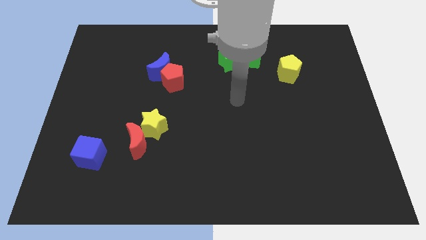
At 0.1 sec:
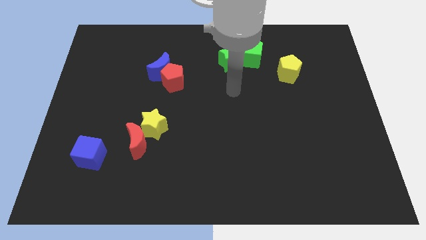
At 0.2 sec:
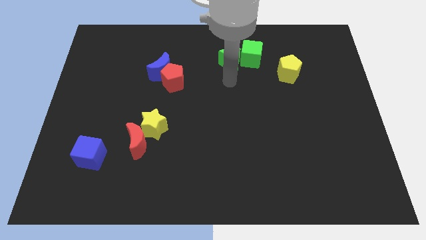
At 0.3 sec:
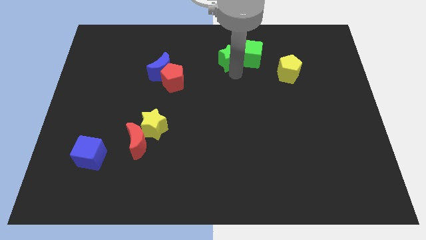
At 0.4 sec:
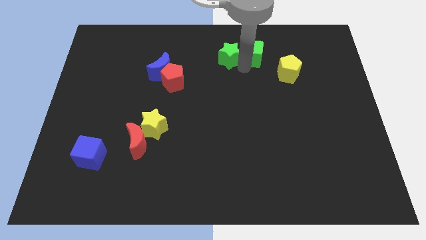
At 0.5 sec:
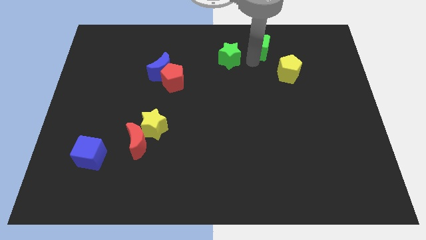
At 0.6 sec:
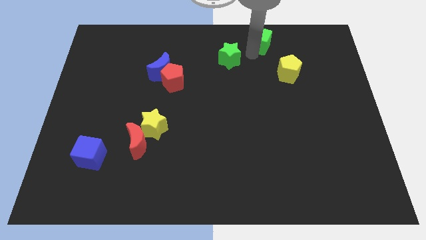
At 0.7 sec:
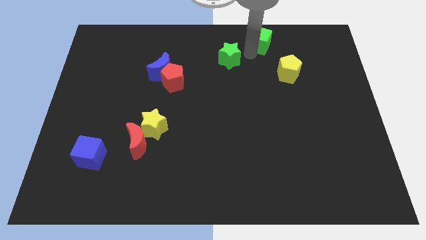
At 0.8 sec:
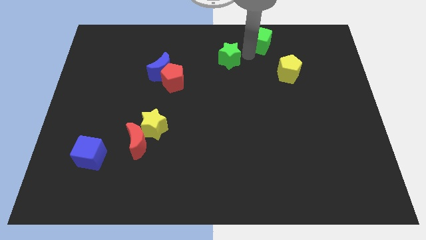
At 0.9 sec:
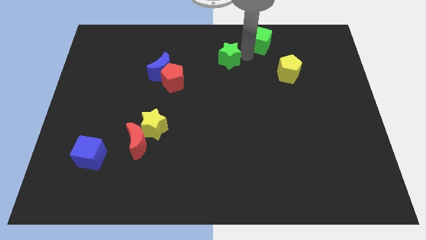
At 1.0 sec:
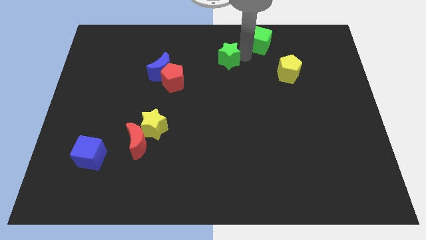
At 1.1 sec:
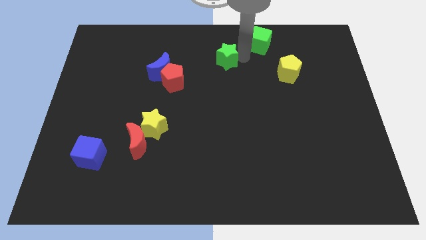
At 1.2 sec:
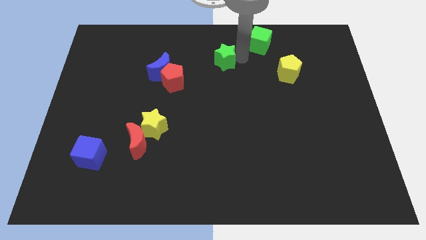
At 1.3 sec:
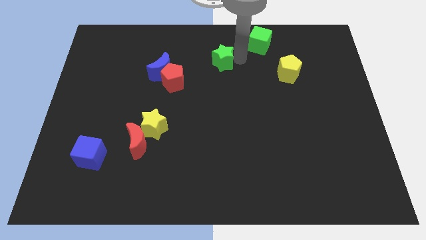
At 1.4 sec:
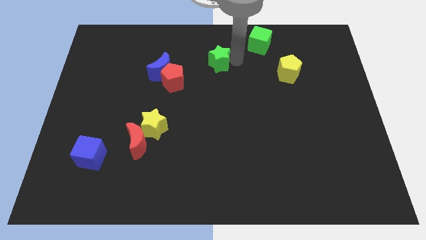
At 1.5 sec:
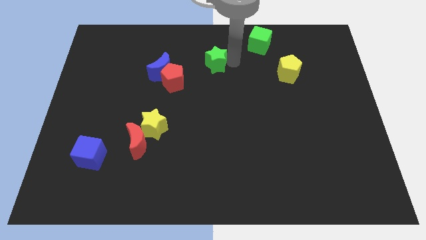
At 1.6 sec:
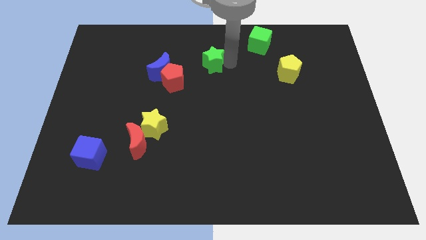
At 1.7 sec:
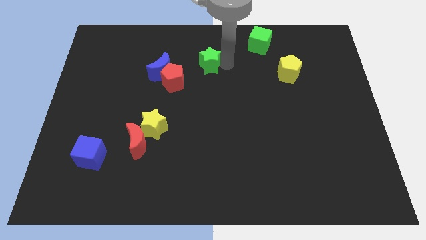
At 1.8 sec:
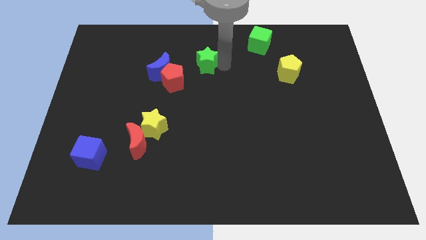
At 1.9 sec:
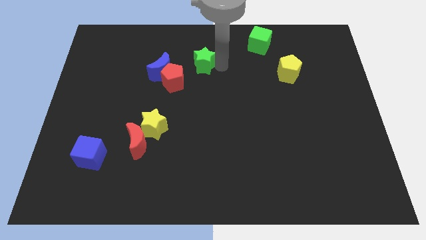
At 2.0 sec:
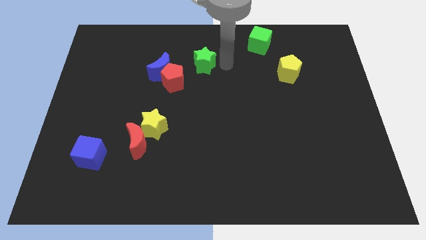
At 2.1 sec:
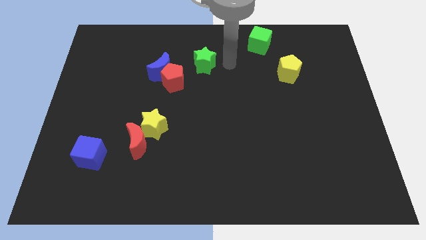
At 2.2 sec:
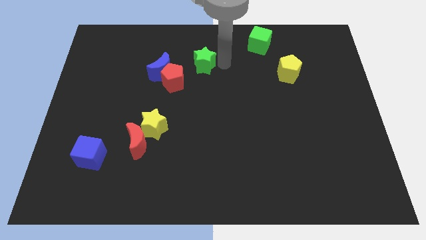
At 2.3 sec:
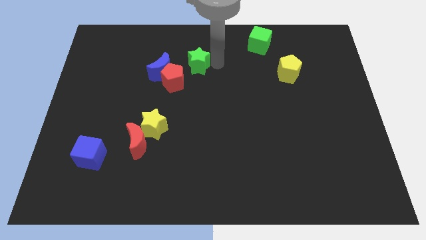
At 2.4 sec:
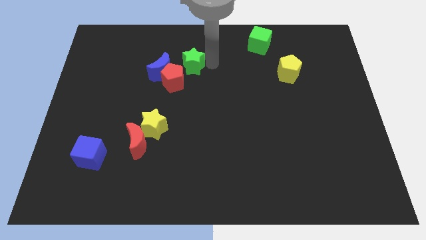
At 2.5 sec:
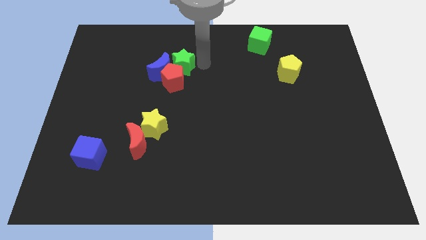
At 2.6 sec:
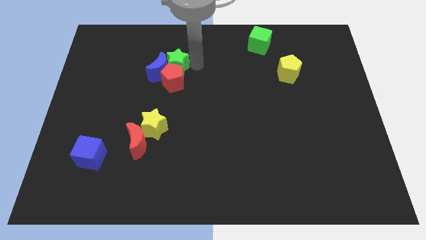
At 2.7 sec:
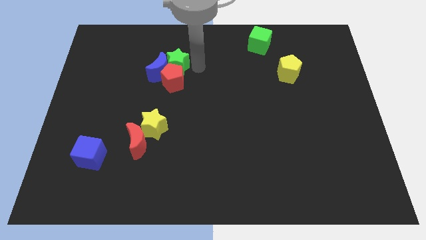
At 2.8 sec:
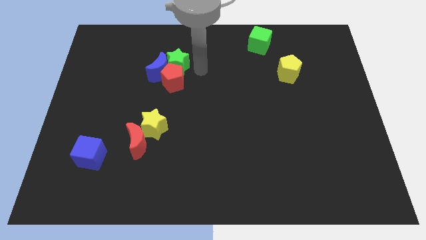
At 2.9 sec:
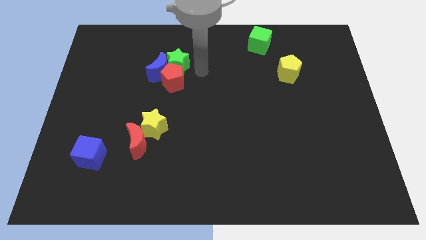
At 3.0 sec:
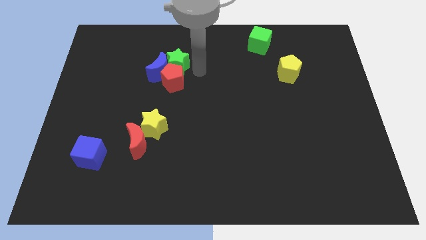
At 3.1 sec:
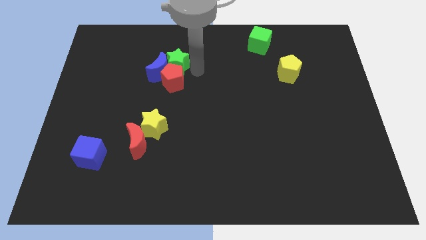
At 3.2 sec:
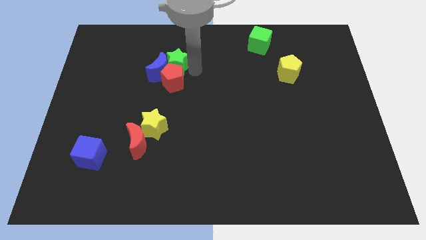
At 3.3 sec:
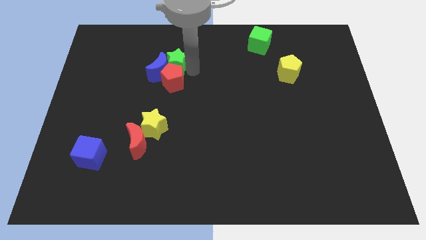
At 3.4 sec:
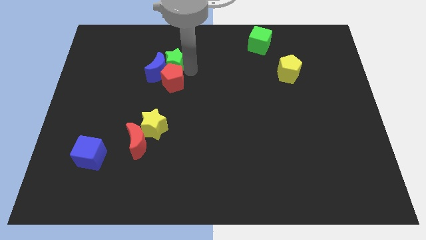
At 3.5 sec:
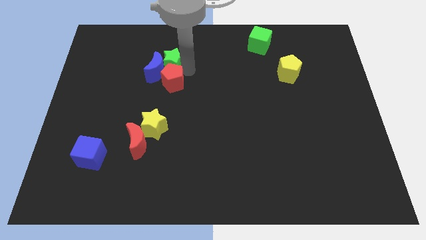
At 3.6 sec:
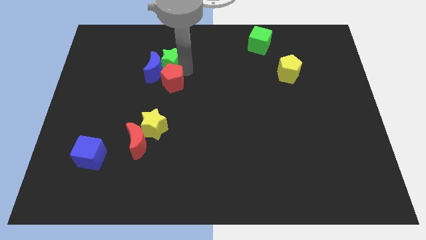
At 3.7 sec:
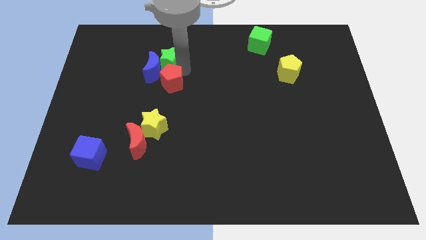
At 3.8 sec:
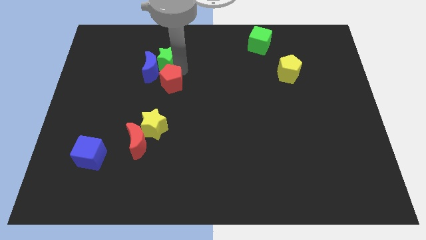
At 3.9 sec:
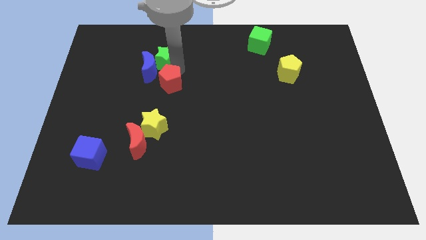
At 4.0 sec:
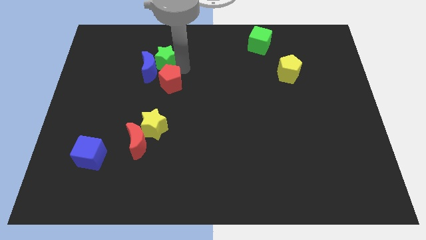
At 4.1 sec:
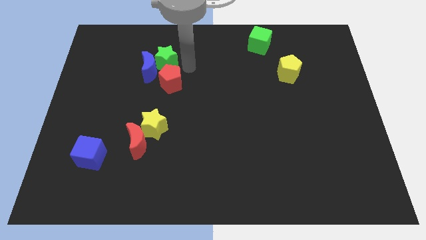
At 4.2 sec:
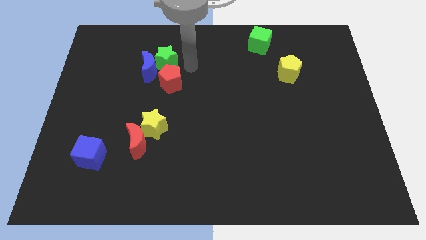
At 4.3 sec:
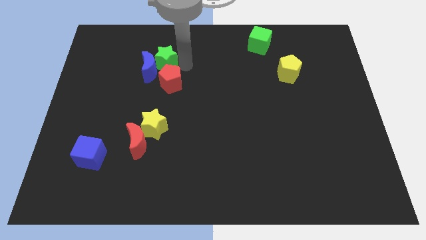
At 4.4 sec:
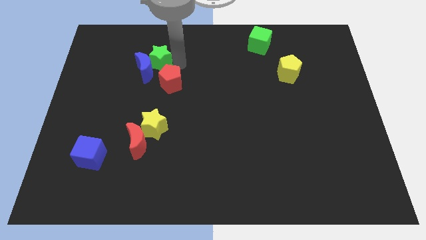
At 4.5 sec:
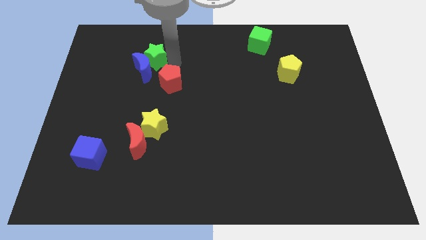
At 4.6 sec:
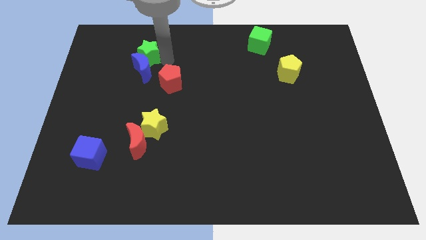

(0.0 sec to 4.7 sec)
move the green star left

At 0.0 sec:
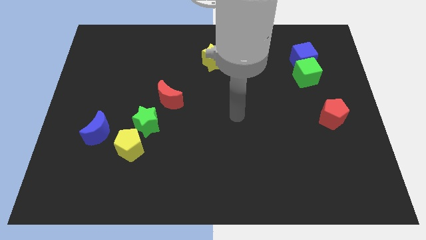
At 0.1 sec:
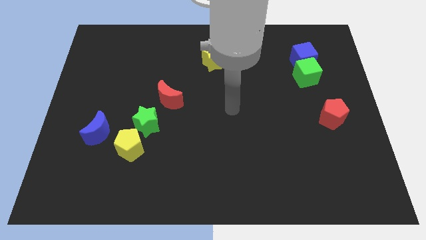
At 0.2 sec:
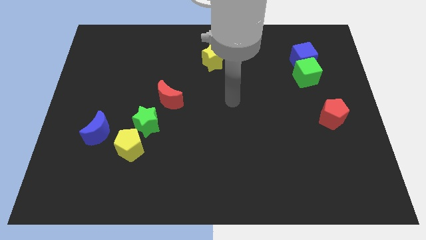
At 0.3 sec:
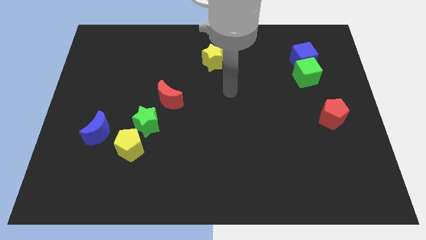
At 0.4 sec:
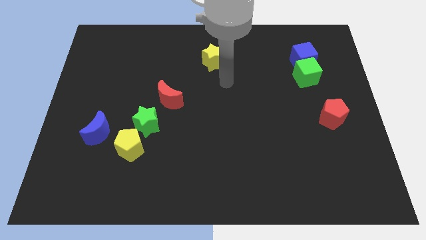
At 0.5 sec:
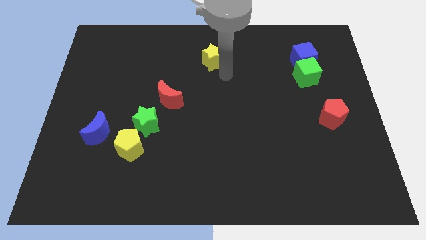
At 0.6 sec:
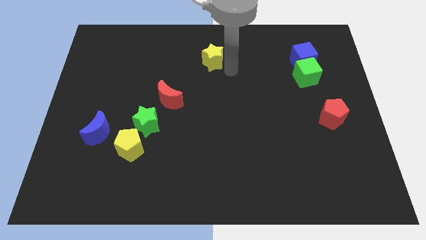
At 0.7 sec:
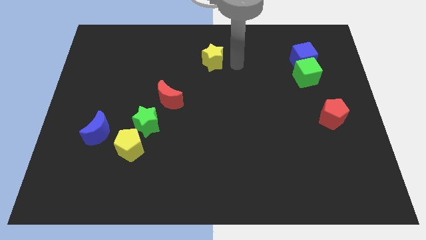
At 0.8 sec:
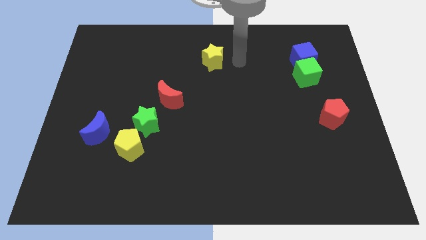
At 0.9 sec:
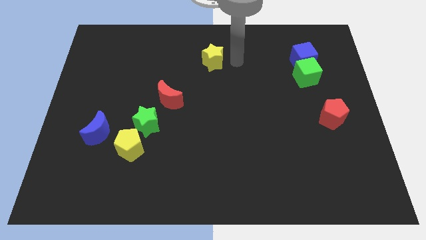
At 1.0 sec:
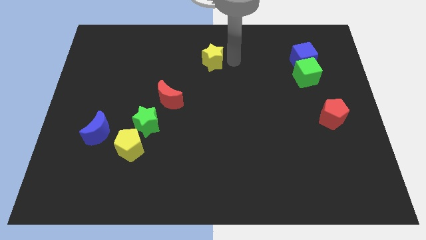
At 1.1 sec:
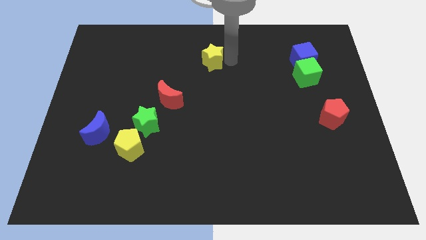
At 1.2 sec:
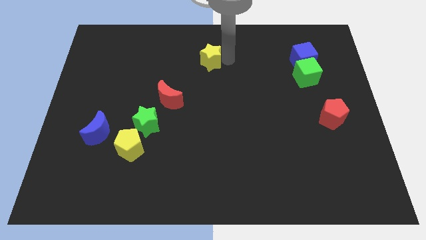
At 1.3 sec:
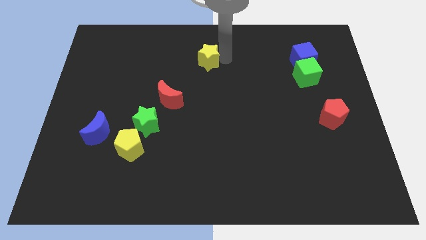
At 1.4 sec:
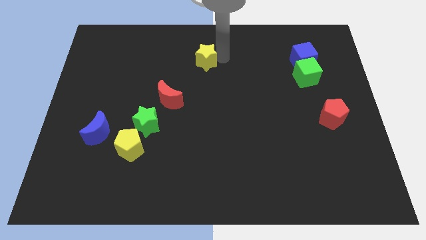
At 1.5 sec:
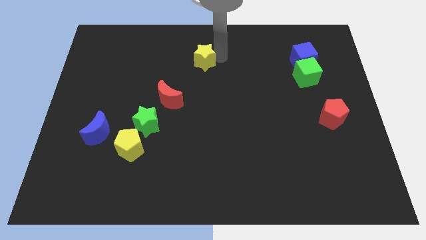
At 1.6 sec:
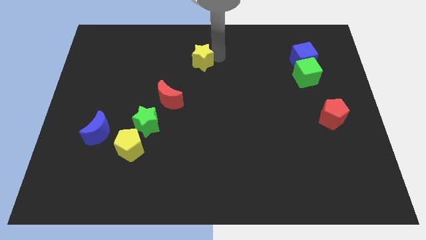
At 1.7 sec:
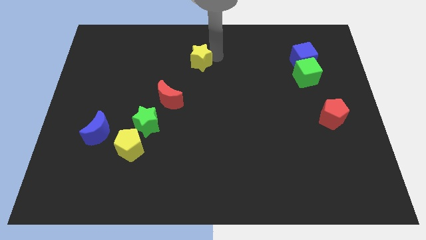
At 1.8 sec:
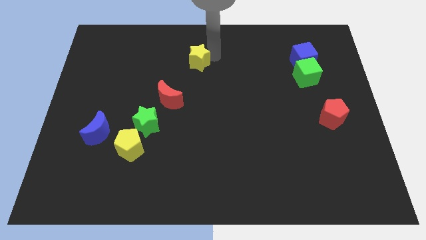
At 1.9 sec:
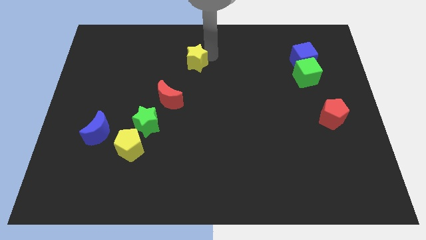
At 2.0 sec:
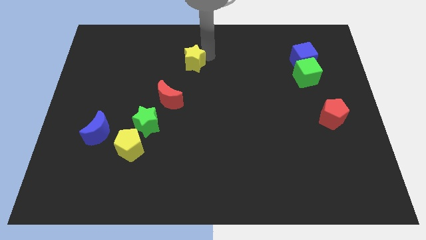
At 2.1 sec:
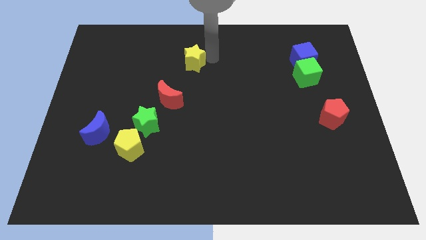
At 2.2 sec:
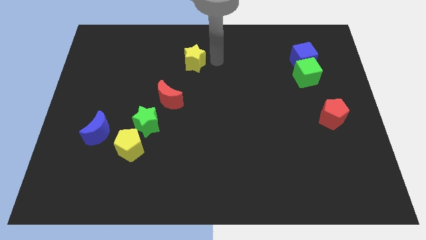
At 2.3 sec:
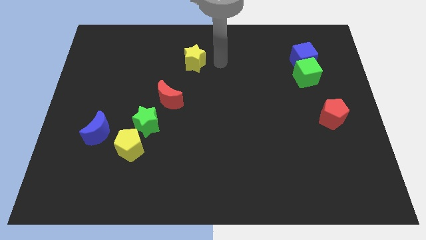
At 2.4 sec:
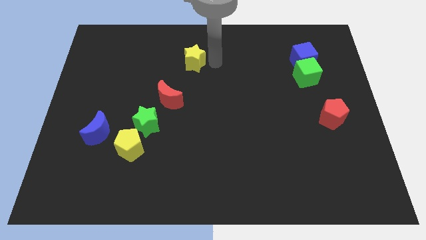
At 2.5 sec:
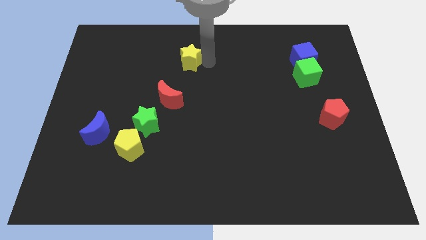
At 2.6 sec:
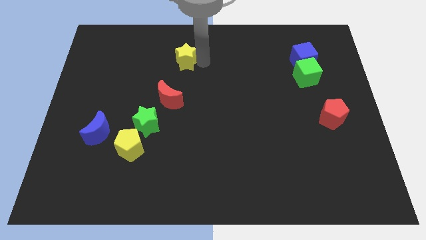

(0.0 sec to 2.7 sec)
slide the yellow star left slightly

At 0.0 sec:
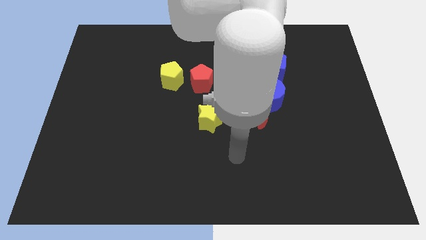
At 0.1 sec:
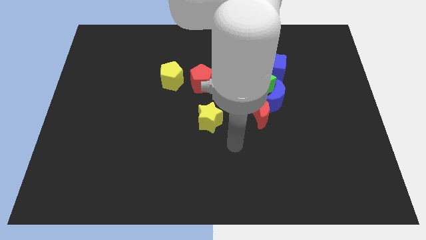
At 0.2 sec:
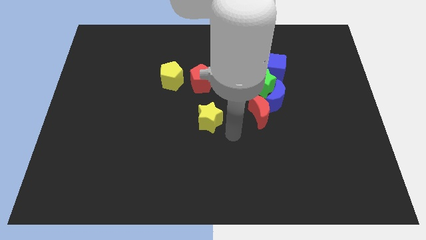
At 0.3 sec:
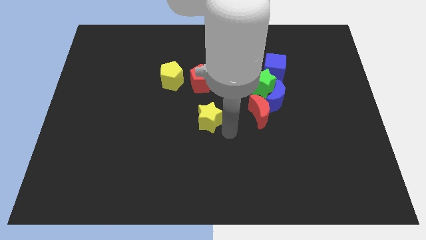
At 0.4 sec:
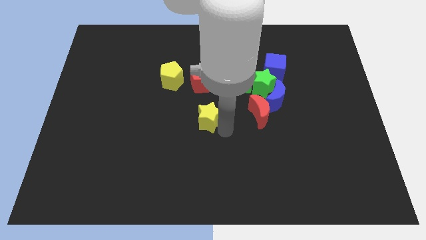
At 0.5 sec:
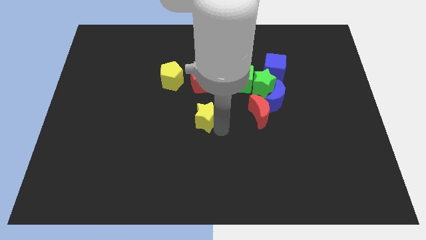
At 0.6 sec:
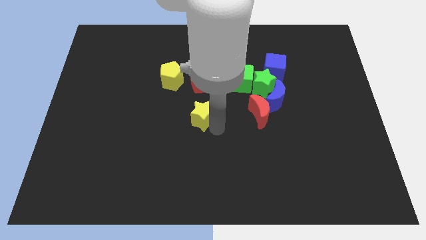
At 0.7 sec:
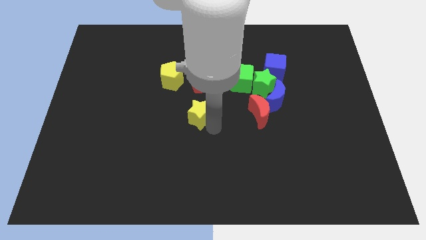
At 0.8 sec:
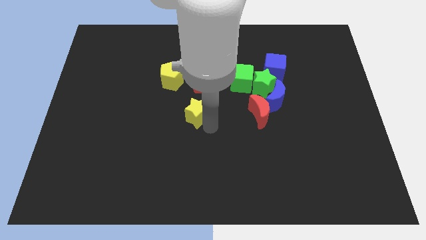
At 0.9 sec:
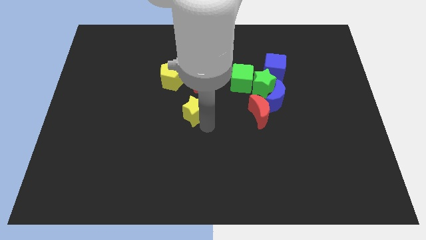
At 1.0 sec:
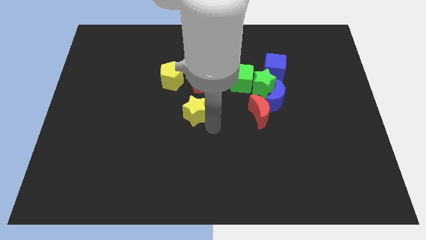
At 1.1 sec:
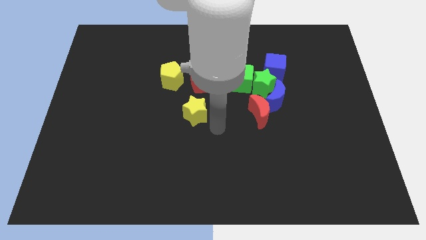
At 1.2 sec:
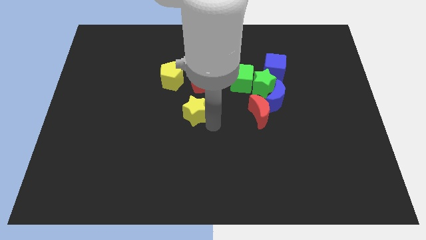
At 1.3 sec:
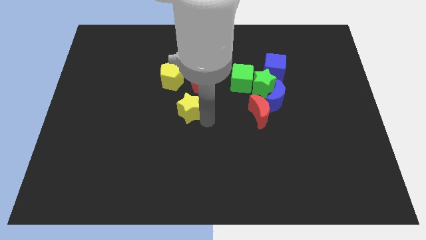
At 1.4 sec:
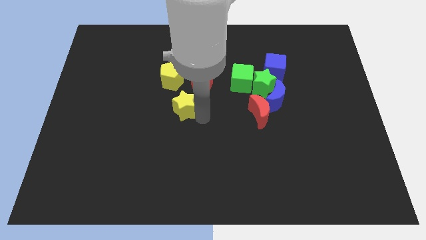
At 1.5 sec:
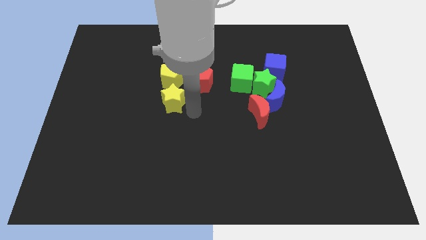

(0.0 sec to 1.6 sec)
slightly slide the yellow star upwards and then left
